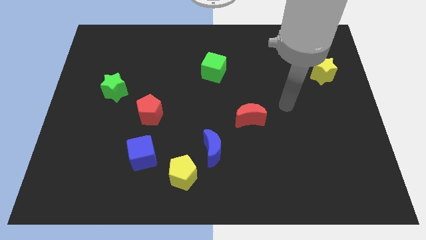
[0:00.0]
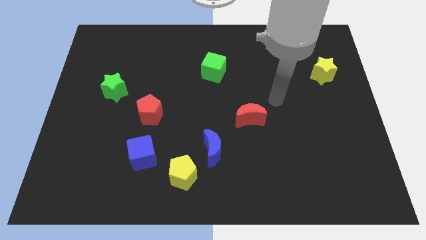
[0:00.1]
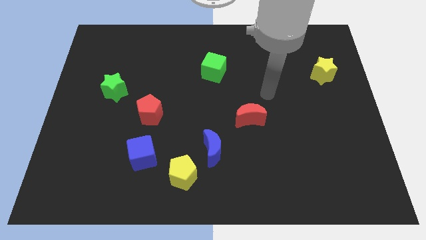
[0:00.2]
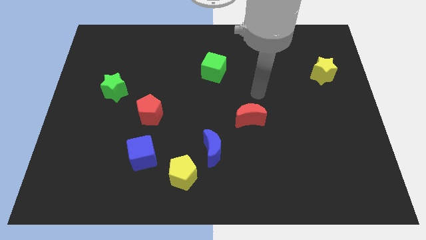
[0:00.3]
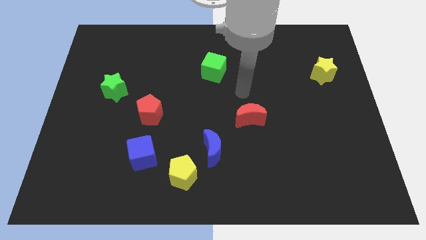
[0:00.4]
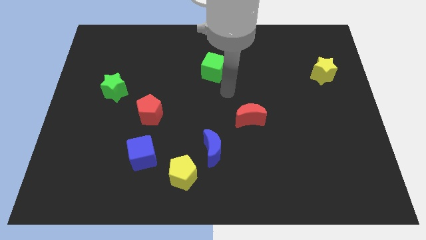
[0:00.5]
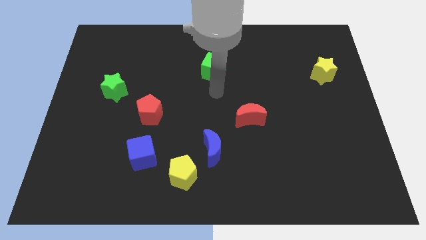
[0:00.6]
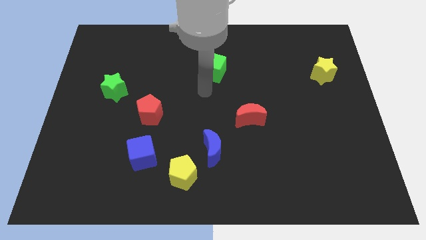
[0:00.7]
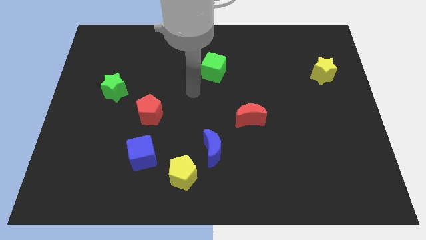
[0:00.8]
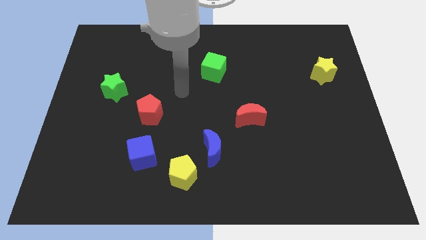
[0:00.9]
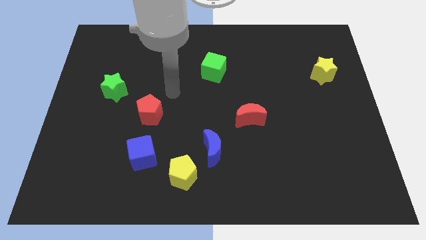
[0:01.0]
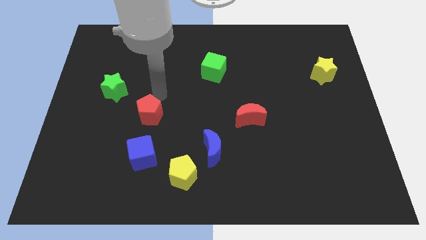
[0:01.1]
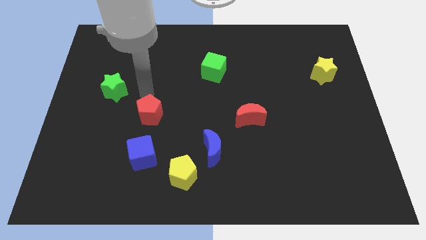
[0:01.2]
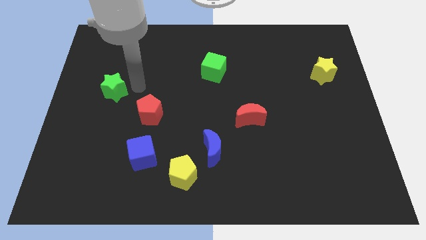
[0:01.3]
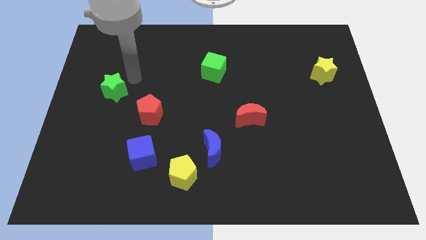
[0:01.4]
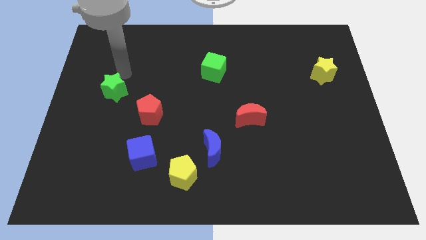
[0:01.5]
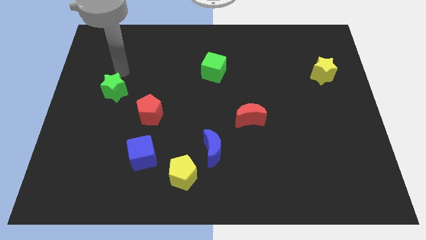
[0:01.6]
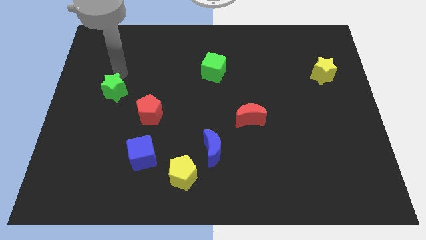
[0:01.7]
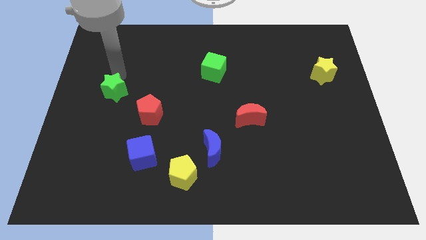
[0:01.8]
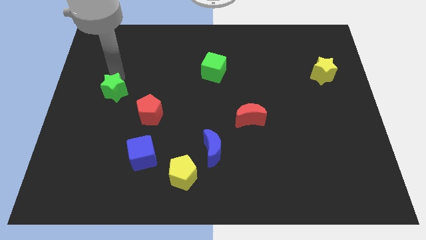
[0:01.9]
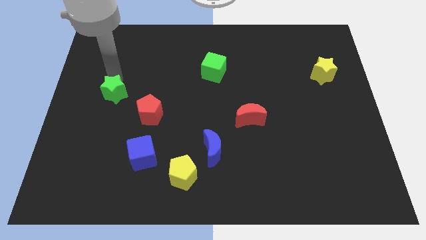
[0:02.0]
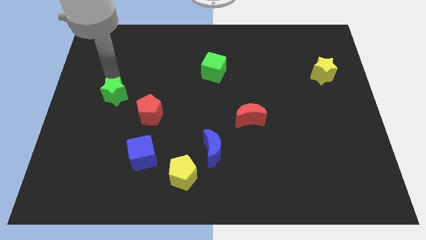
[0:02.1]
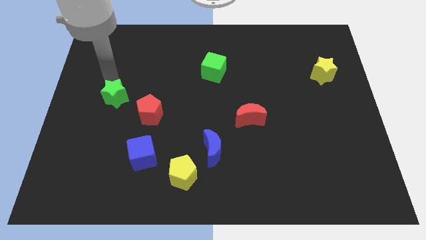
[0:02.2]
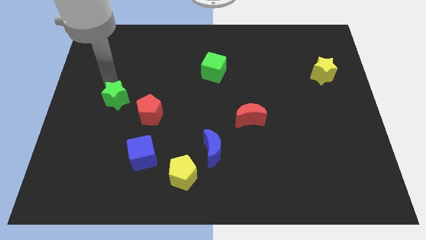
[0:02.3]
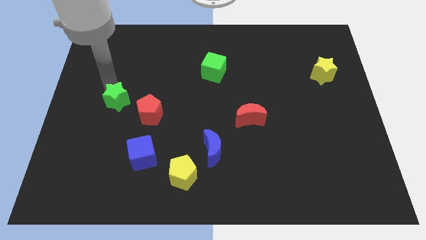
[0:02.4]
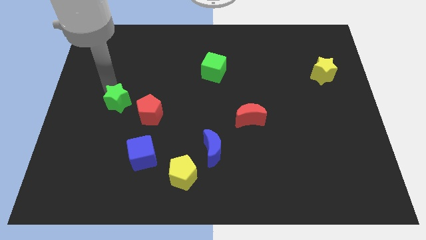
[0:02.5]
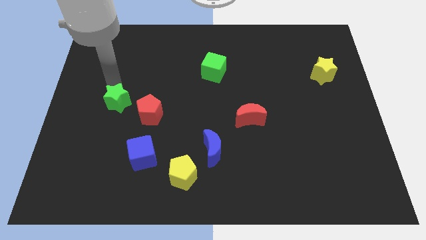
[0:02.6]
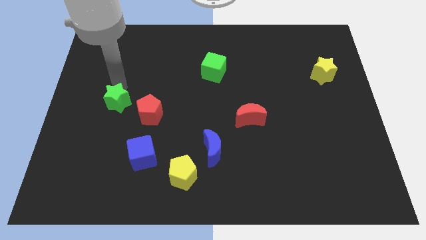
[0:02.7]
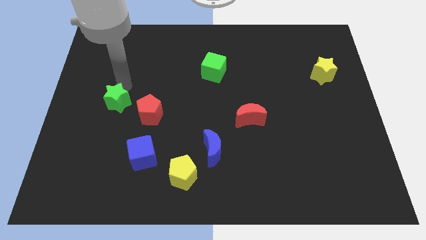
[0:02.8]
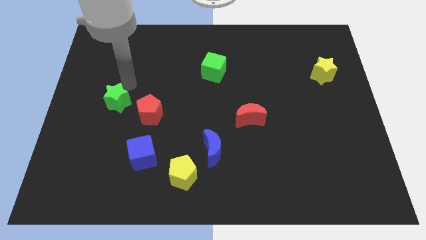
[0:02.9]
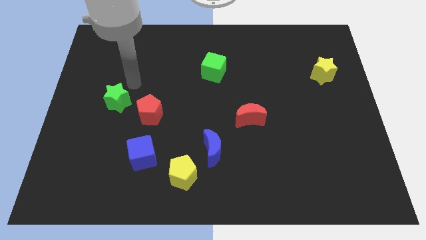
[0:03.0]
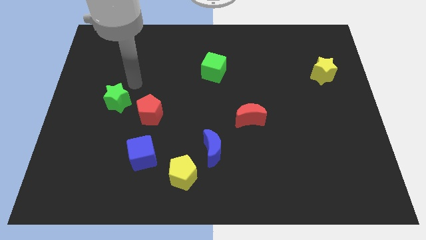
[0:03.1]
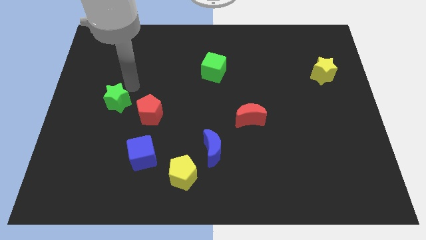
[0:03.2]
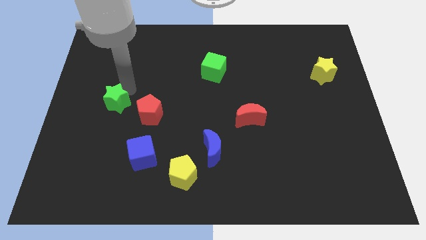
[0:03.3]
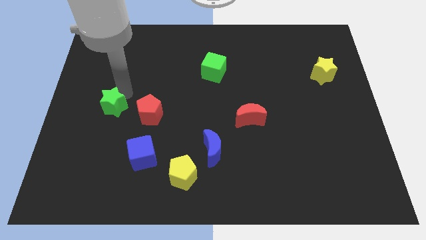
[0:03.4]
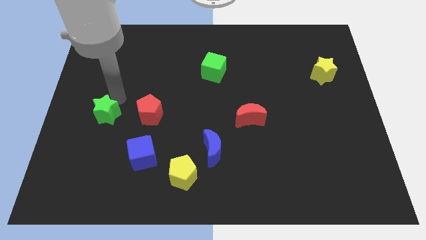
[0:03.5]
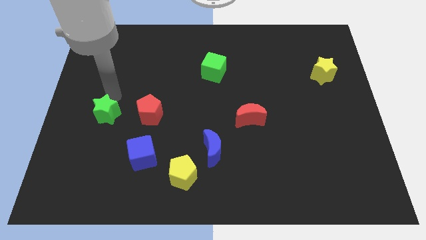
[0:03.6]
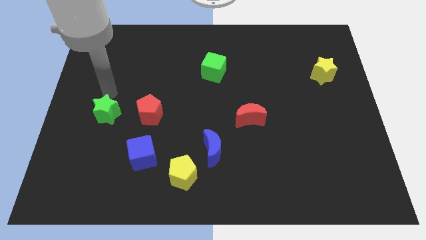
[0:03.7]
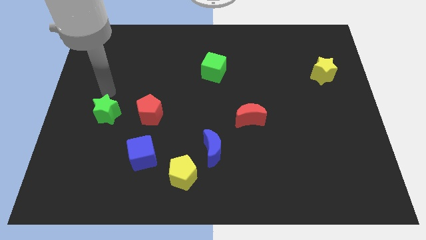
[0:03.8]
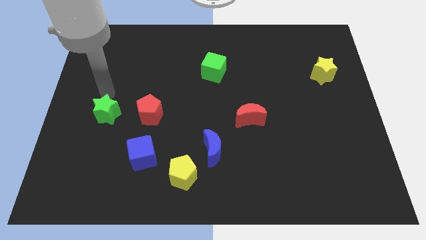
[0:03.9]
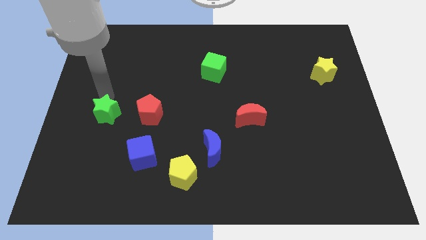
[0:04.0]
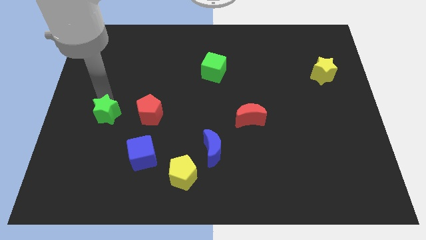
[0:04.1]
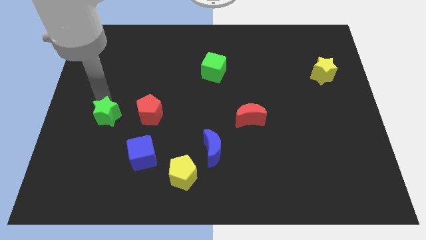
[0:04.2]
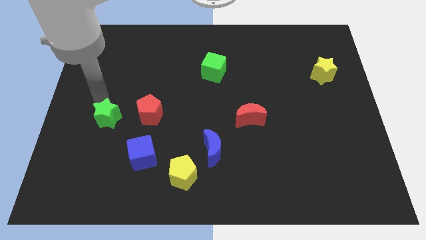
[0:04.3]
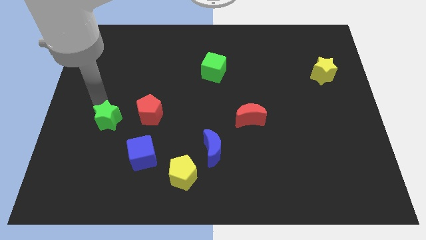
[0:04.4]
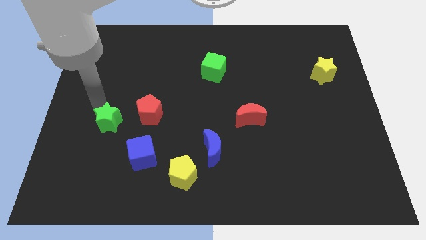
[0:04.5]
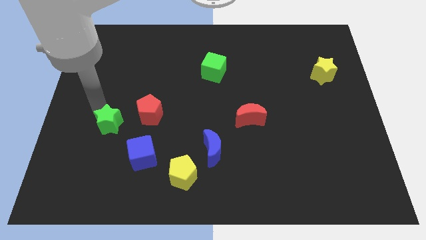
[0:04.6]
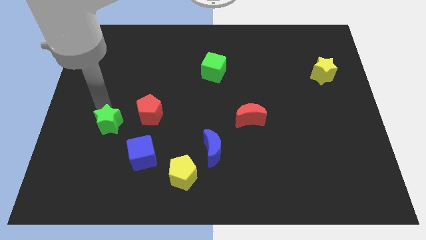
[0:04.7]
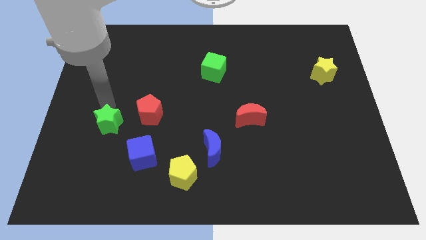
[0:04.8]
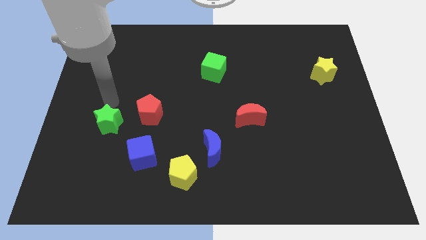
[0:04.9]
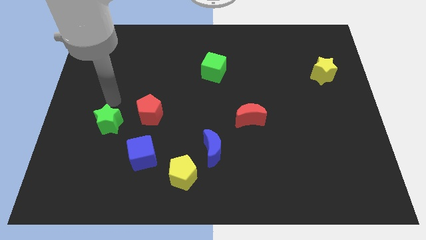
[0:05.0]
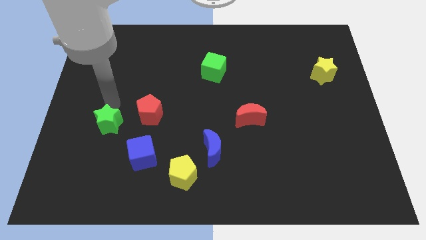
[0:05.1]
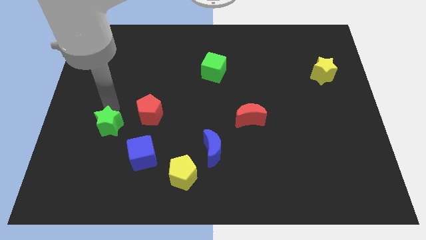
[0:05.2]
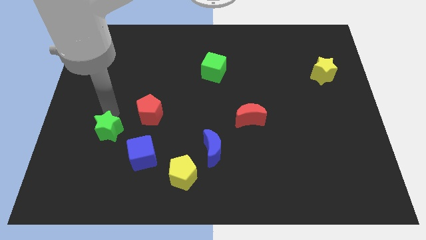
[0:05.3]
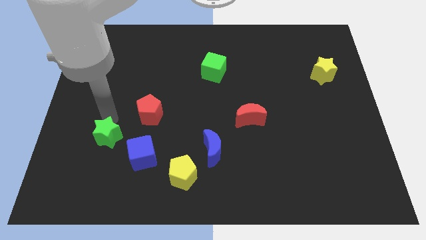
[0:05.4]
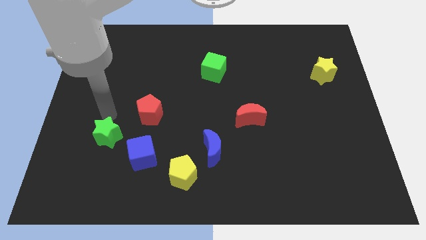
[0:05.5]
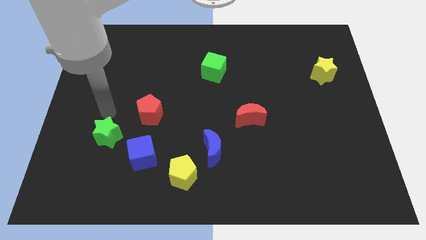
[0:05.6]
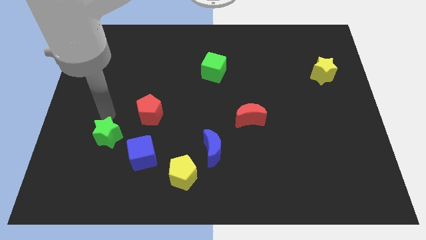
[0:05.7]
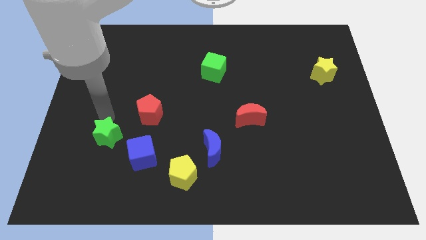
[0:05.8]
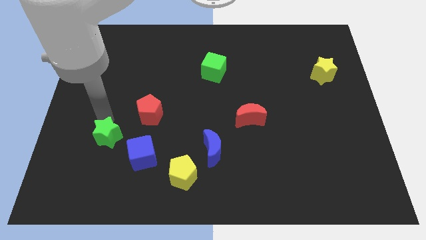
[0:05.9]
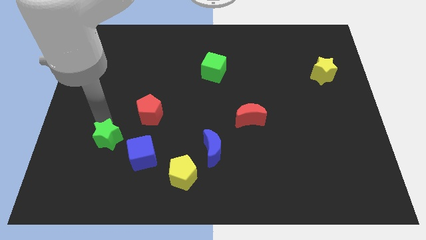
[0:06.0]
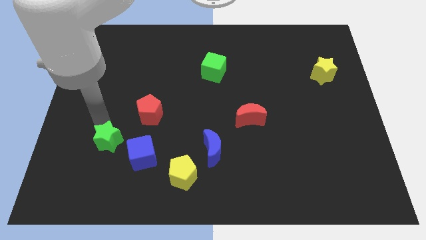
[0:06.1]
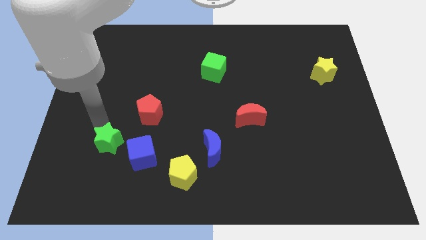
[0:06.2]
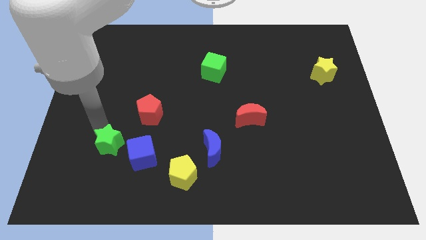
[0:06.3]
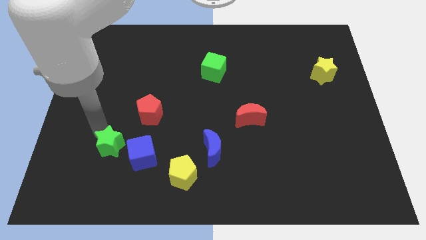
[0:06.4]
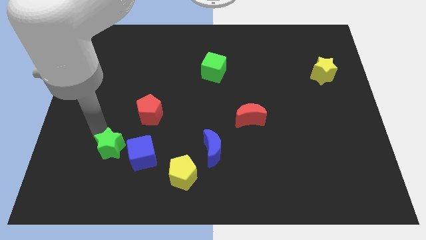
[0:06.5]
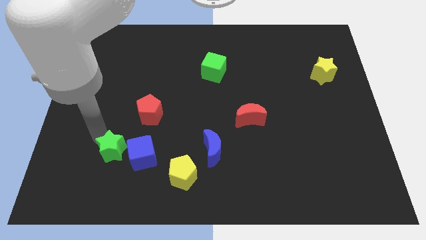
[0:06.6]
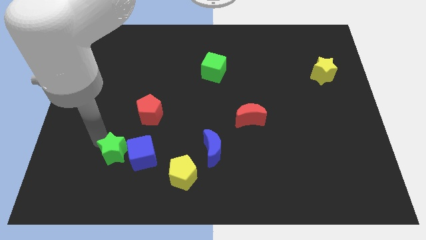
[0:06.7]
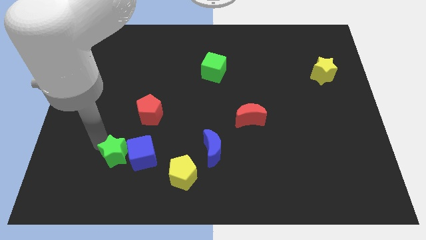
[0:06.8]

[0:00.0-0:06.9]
push the green star diagonally down and to the left of the blue cube

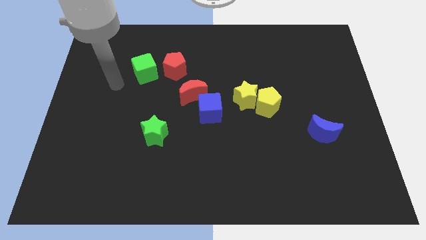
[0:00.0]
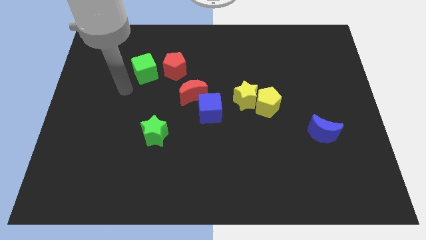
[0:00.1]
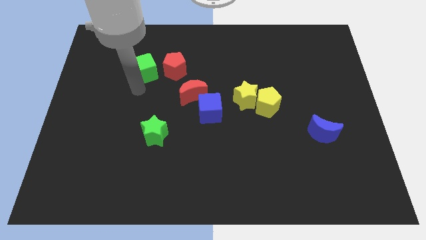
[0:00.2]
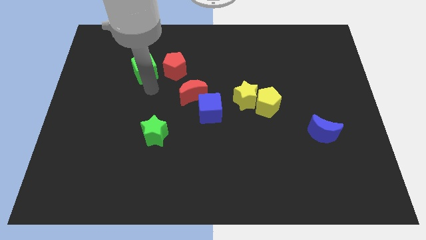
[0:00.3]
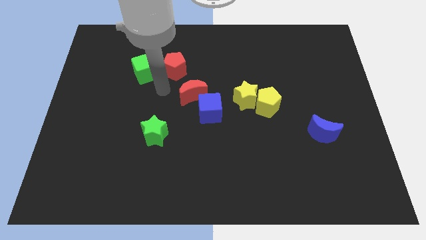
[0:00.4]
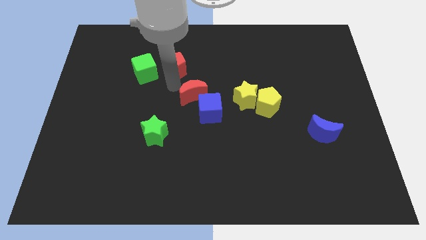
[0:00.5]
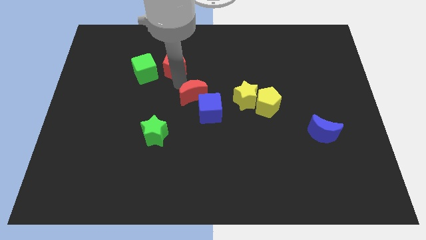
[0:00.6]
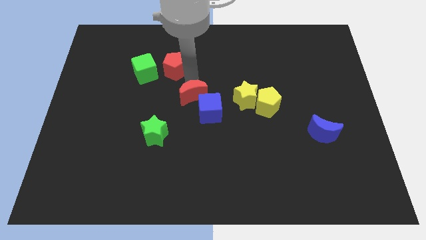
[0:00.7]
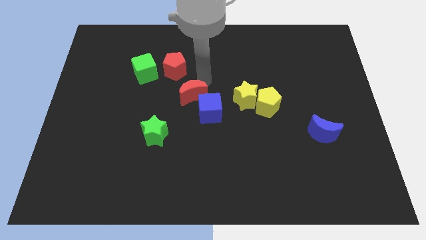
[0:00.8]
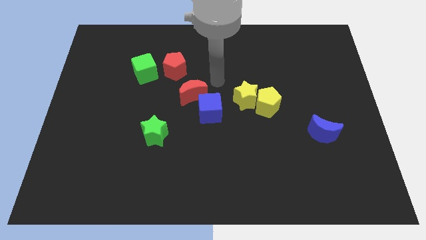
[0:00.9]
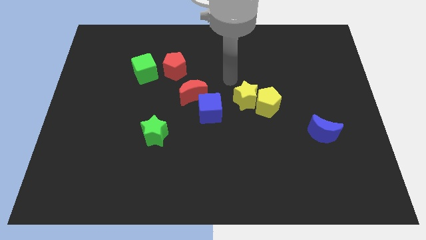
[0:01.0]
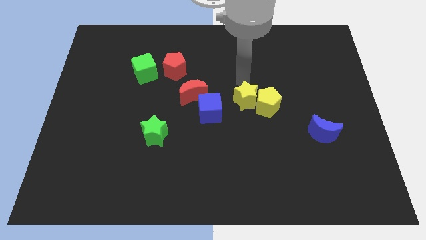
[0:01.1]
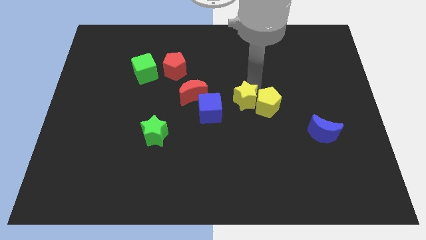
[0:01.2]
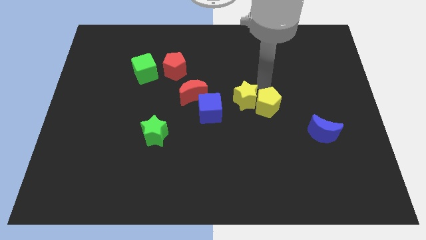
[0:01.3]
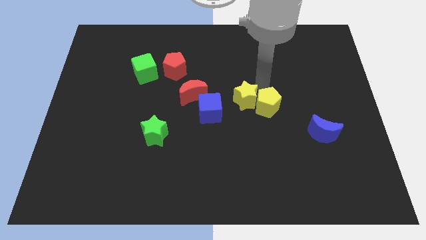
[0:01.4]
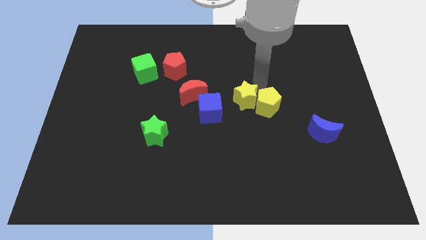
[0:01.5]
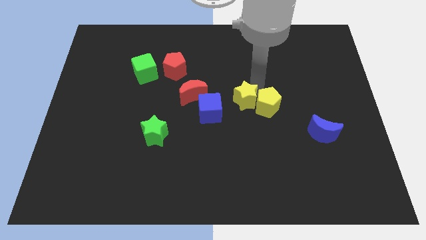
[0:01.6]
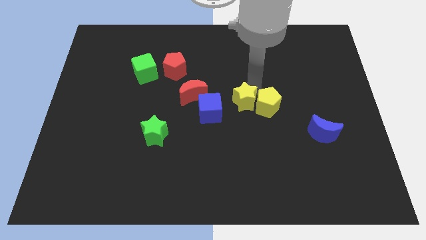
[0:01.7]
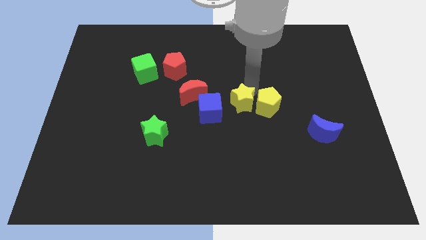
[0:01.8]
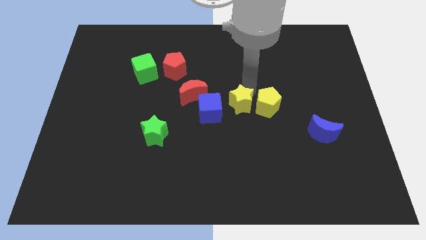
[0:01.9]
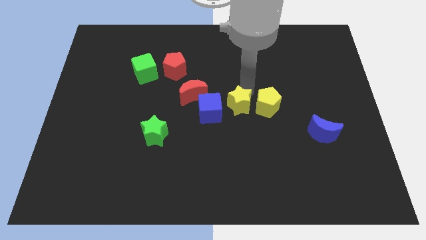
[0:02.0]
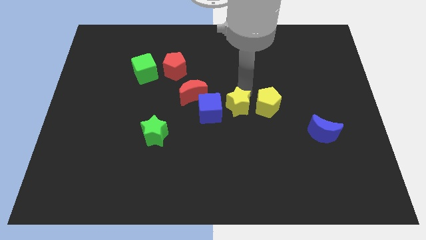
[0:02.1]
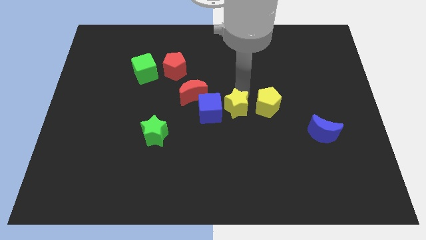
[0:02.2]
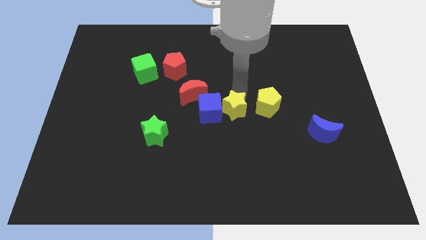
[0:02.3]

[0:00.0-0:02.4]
slide the yellow star to the bottom right side of the red moon
